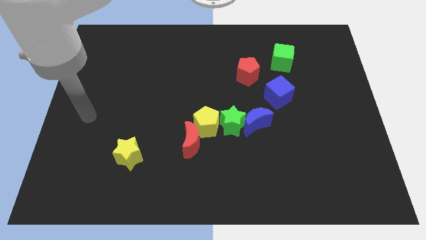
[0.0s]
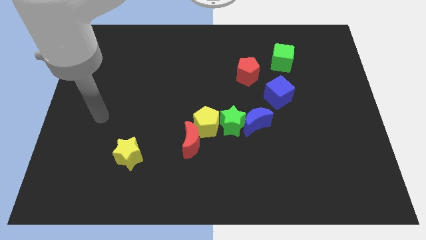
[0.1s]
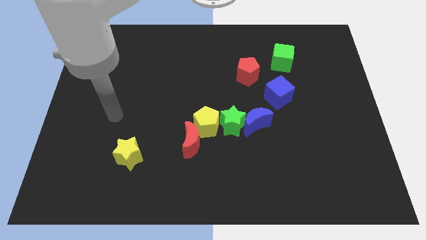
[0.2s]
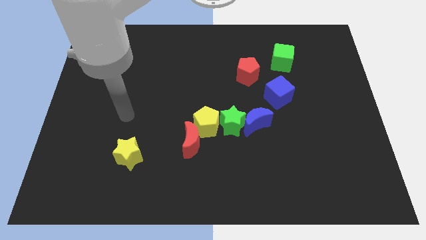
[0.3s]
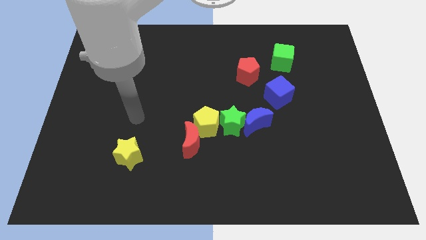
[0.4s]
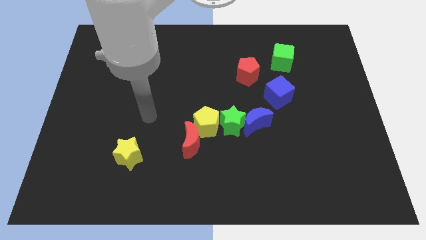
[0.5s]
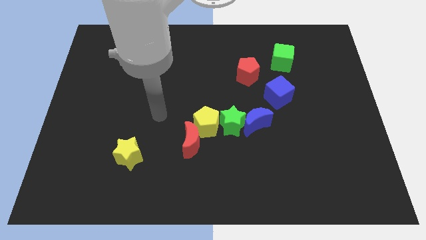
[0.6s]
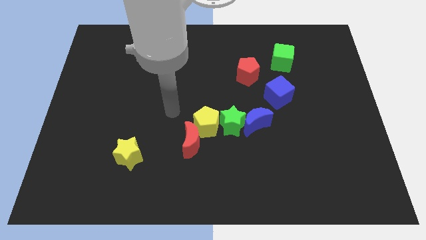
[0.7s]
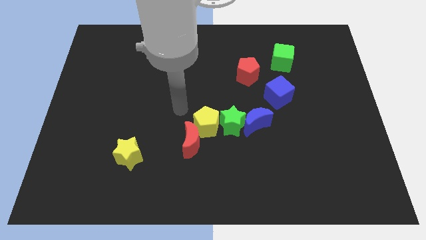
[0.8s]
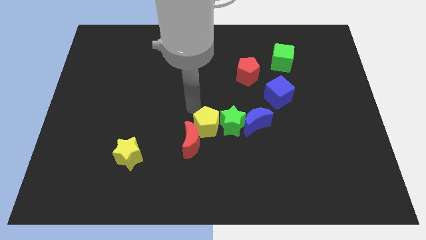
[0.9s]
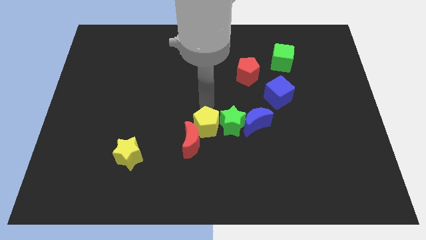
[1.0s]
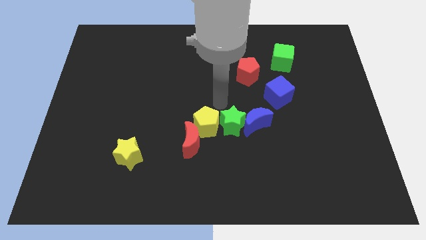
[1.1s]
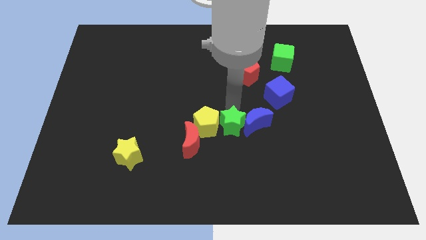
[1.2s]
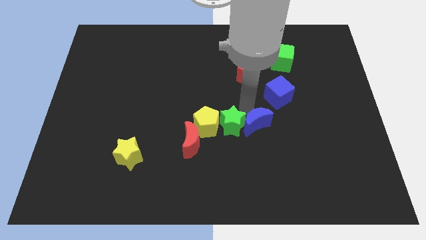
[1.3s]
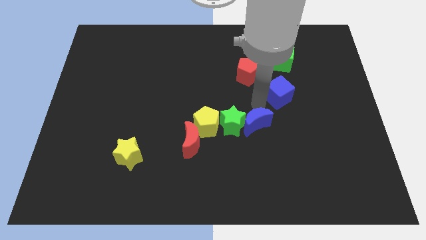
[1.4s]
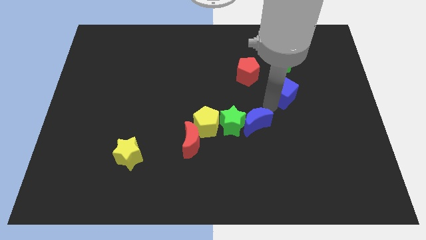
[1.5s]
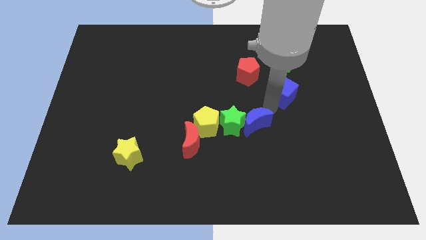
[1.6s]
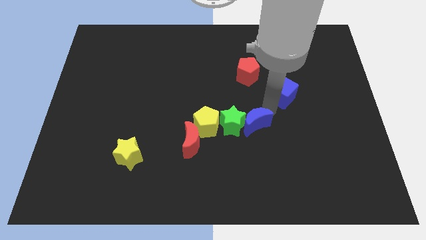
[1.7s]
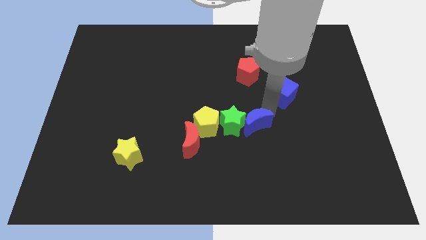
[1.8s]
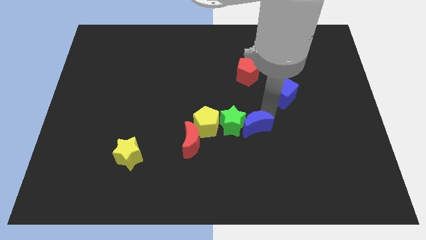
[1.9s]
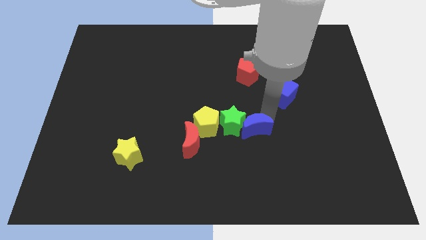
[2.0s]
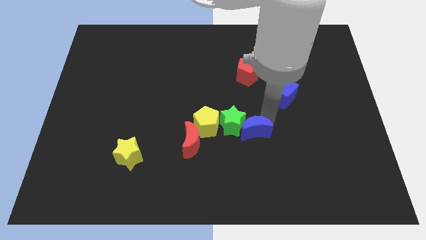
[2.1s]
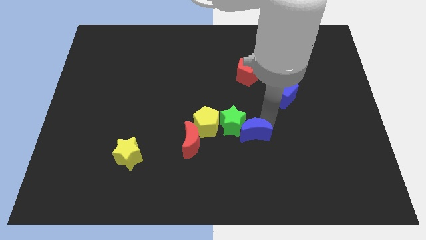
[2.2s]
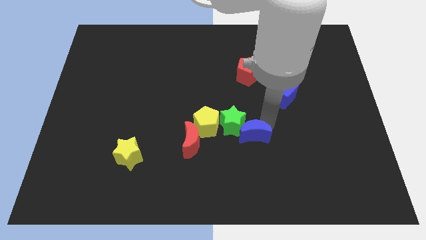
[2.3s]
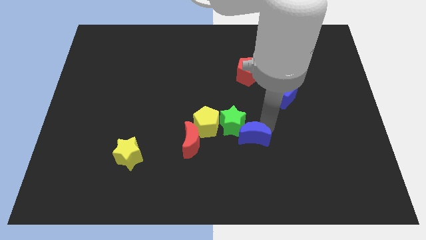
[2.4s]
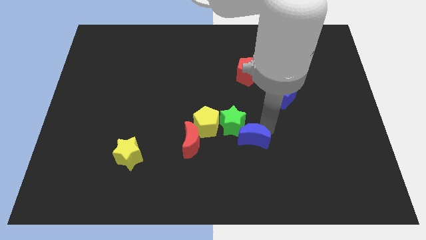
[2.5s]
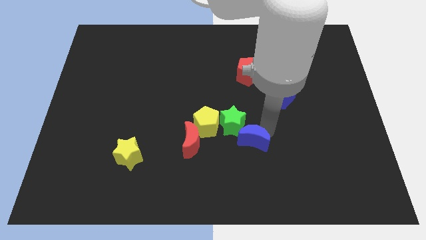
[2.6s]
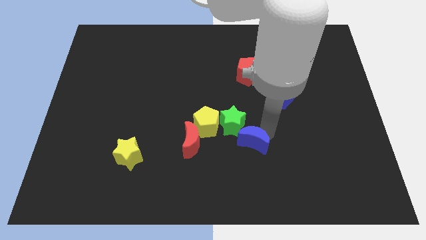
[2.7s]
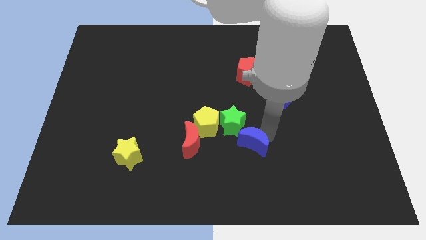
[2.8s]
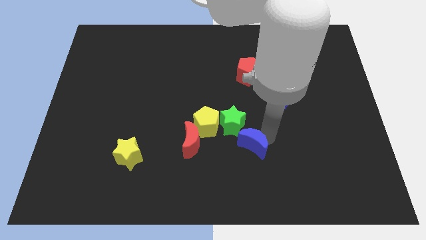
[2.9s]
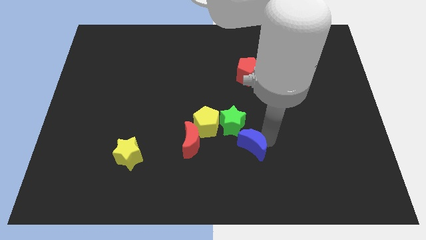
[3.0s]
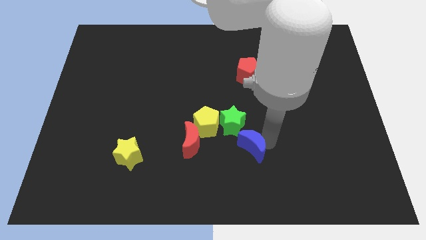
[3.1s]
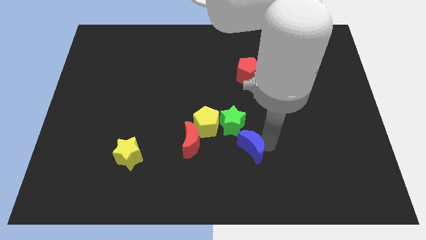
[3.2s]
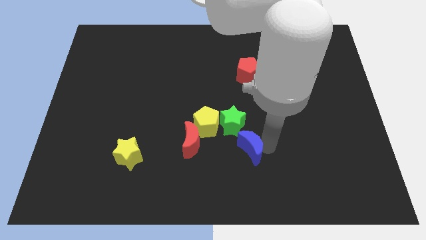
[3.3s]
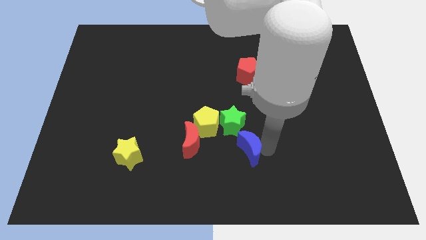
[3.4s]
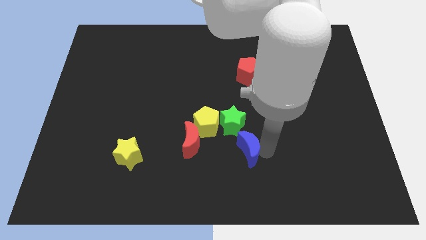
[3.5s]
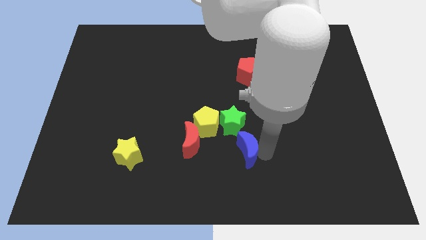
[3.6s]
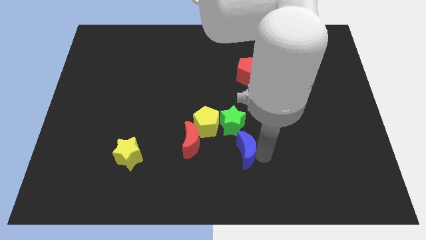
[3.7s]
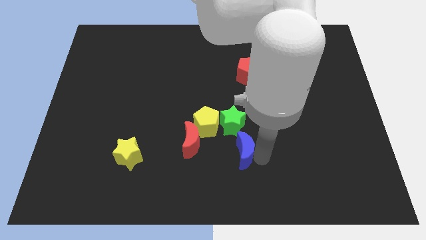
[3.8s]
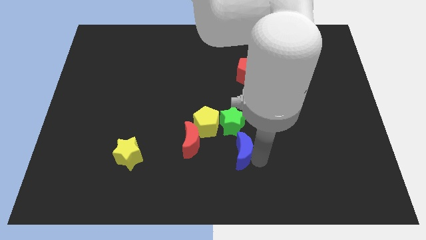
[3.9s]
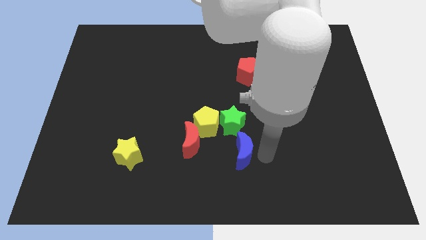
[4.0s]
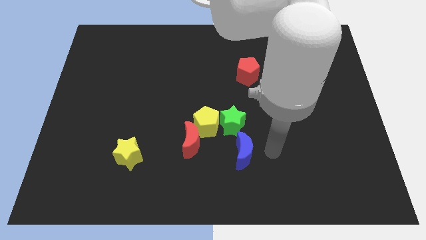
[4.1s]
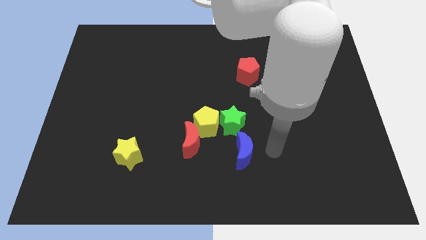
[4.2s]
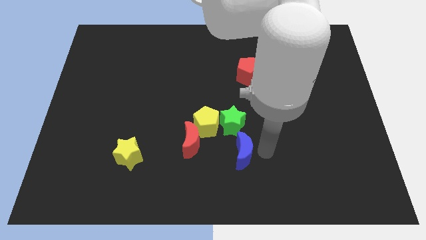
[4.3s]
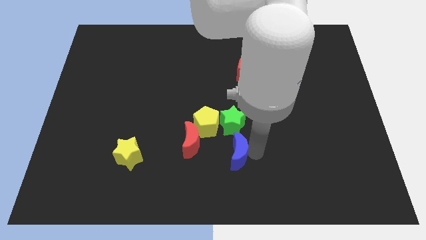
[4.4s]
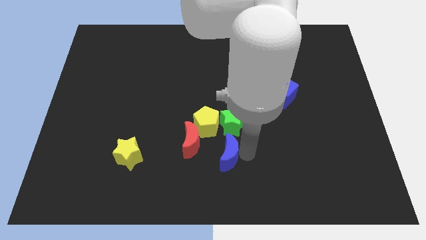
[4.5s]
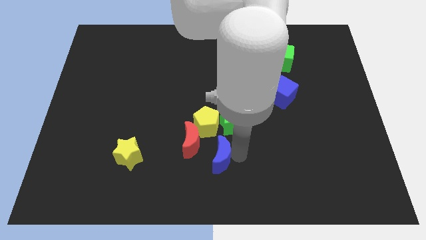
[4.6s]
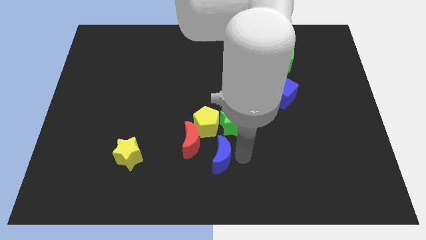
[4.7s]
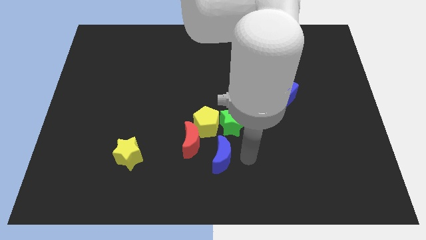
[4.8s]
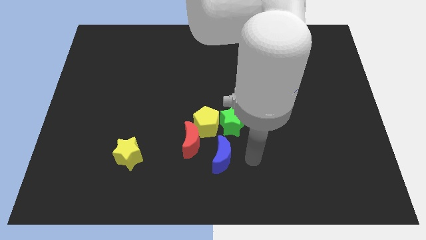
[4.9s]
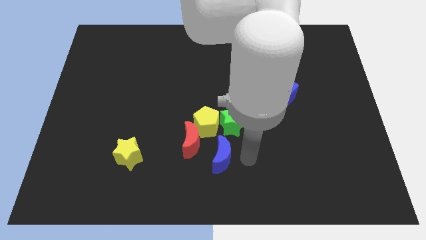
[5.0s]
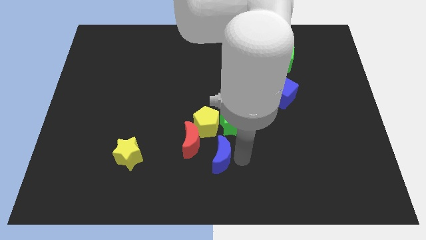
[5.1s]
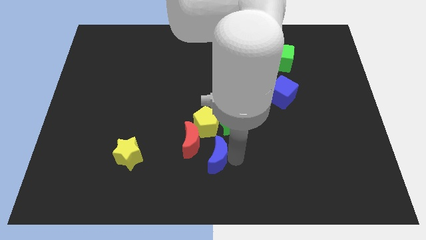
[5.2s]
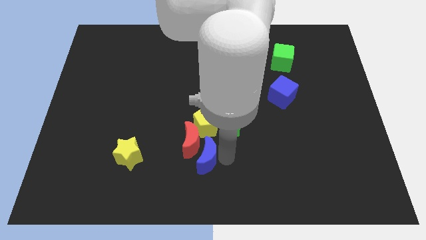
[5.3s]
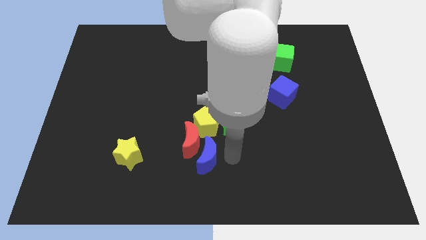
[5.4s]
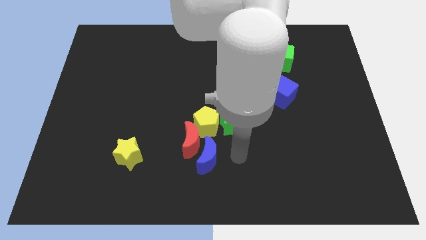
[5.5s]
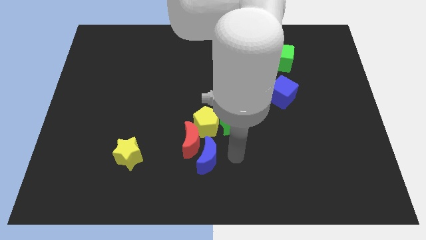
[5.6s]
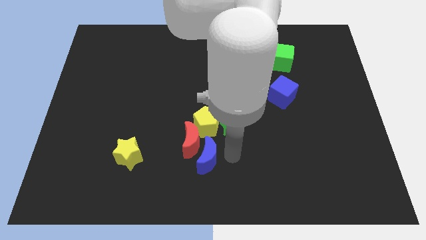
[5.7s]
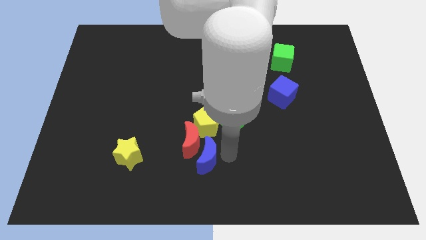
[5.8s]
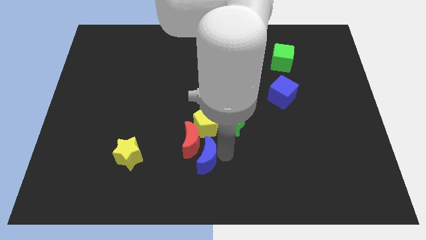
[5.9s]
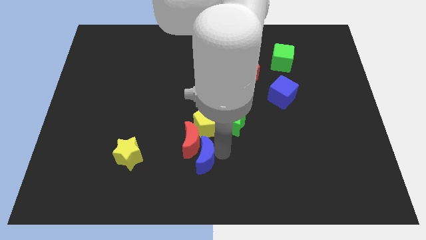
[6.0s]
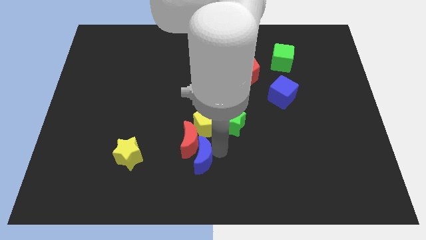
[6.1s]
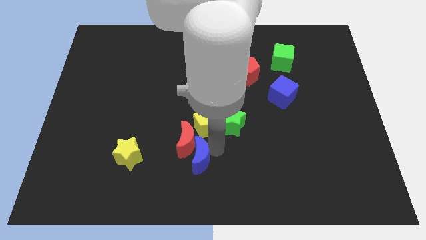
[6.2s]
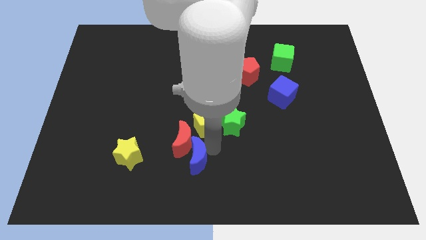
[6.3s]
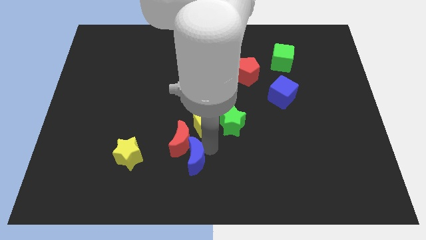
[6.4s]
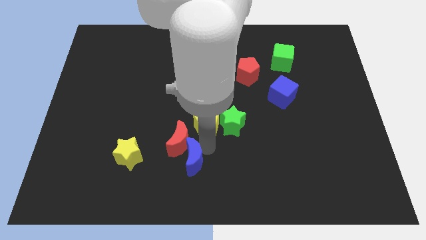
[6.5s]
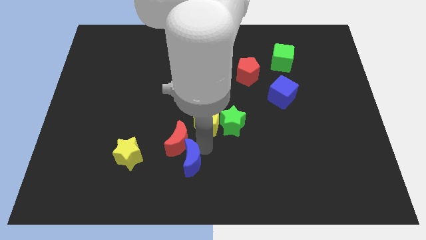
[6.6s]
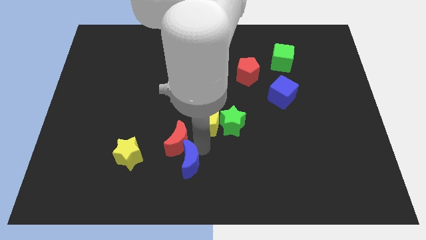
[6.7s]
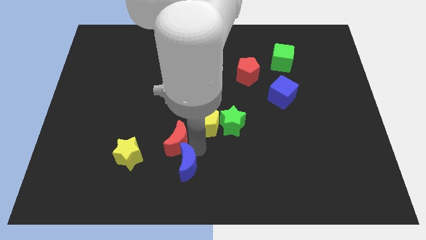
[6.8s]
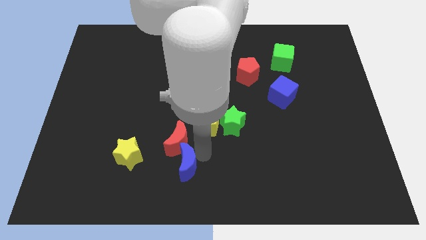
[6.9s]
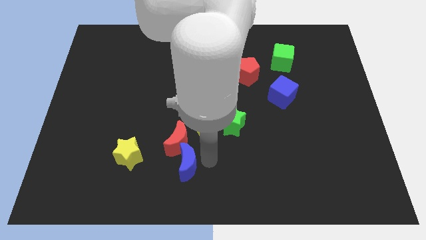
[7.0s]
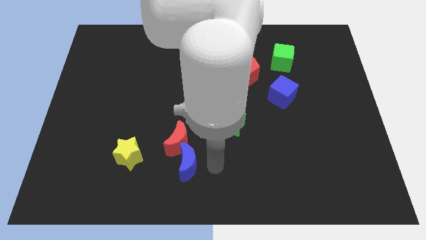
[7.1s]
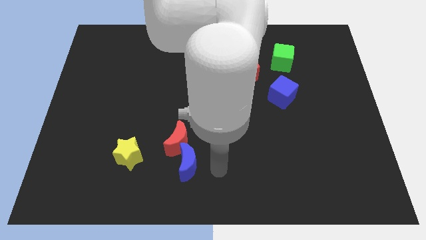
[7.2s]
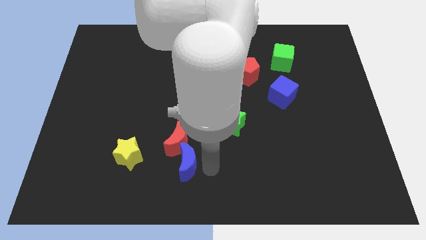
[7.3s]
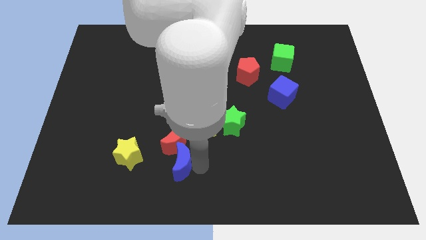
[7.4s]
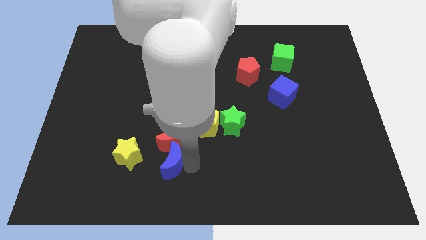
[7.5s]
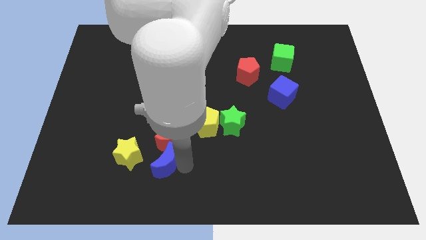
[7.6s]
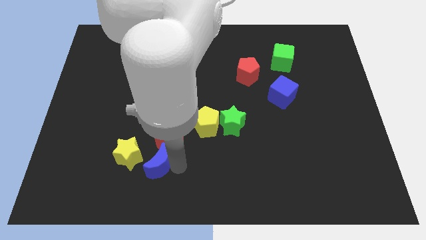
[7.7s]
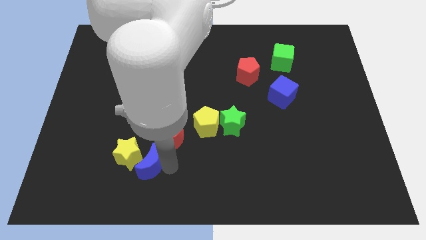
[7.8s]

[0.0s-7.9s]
put the blue moon to the yellow star
